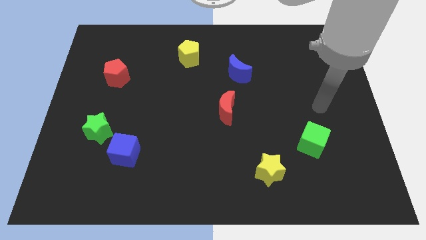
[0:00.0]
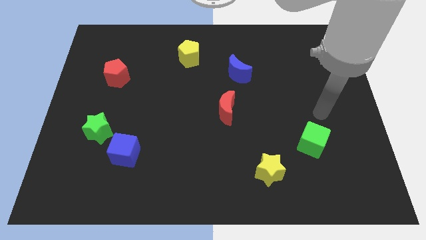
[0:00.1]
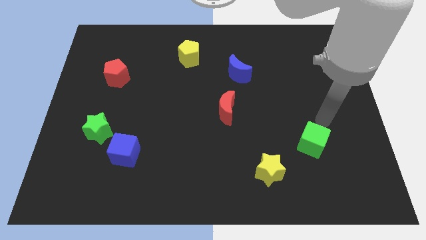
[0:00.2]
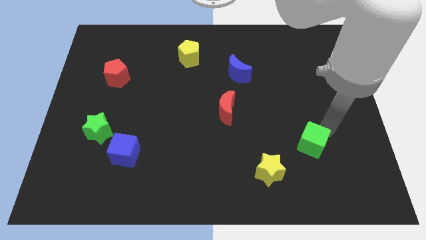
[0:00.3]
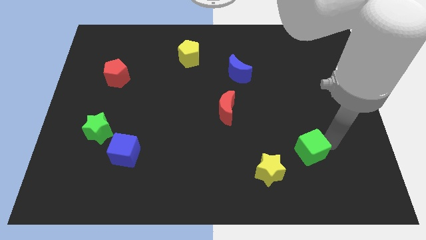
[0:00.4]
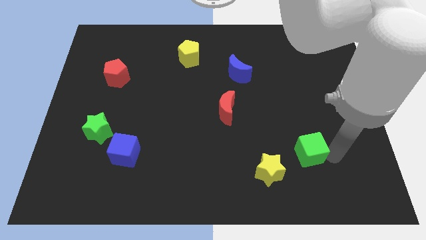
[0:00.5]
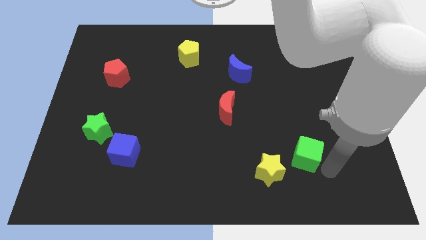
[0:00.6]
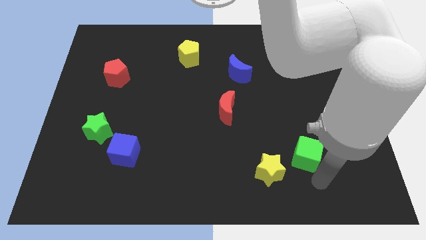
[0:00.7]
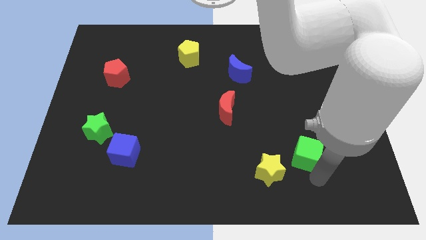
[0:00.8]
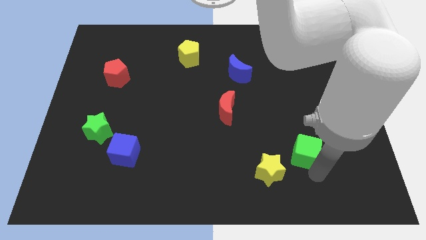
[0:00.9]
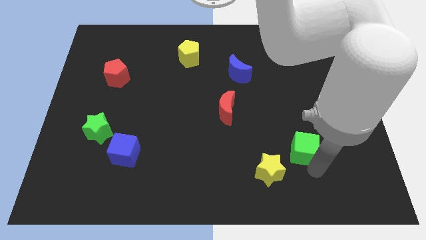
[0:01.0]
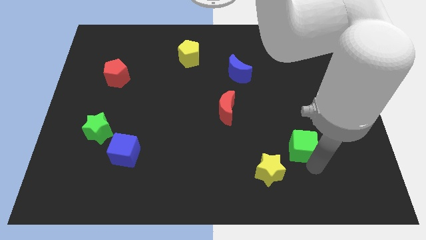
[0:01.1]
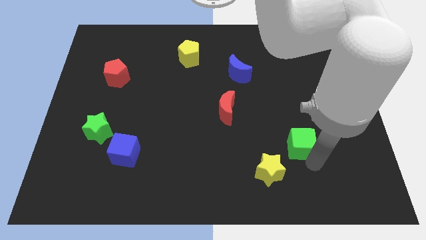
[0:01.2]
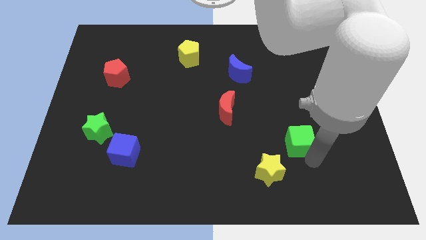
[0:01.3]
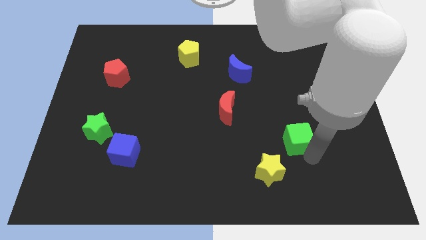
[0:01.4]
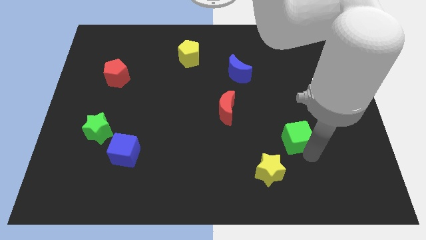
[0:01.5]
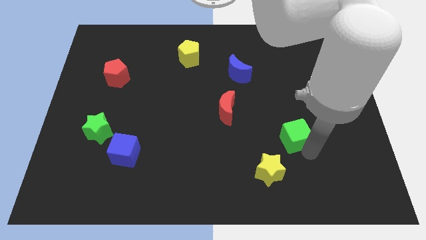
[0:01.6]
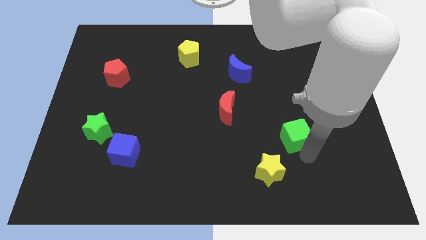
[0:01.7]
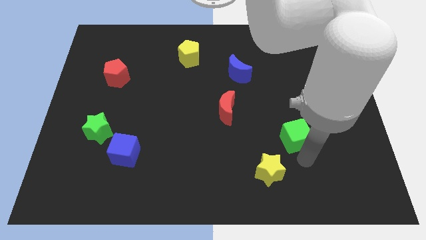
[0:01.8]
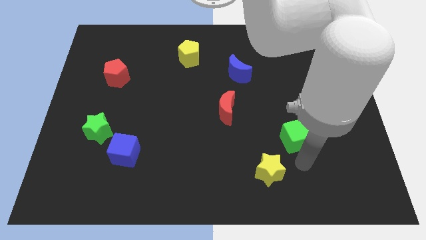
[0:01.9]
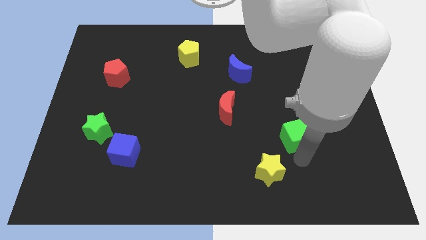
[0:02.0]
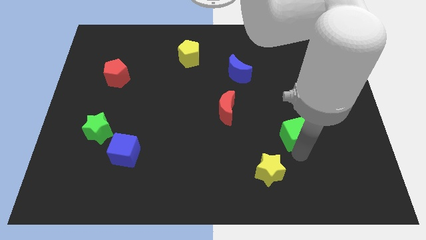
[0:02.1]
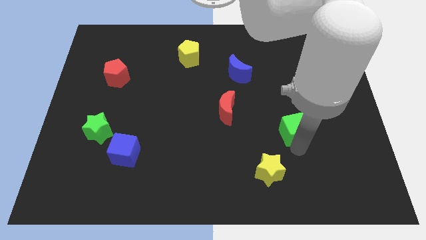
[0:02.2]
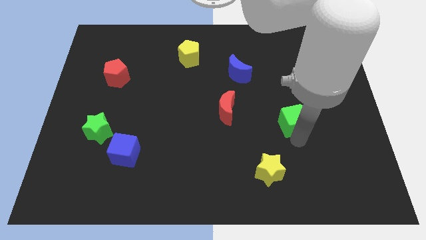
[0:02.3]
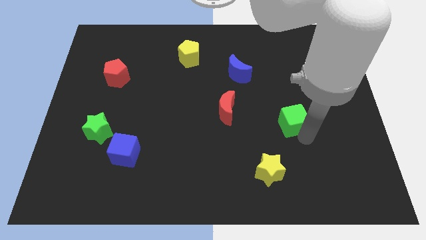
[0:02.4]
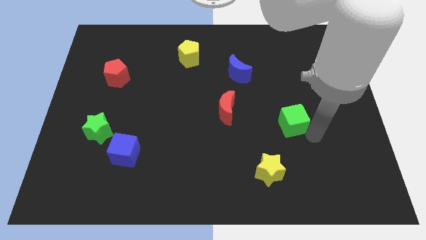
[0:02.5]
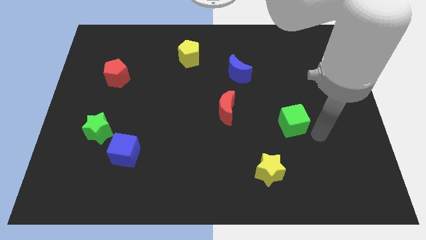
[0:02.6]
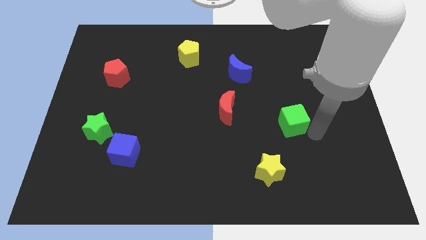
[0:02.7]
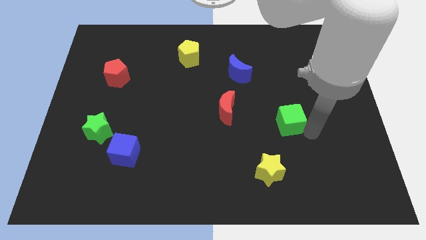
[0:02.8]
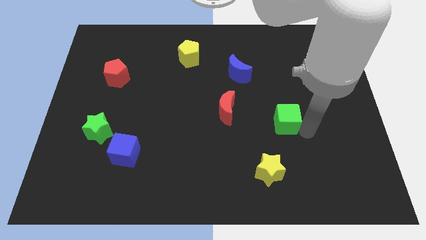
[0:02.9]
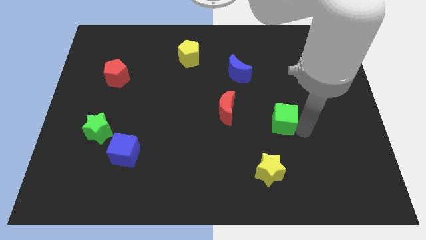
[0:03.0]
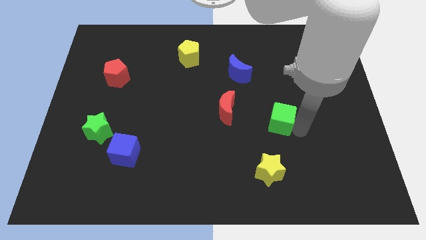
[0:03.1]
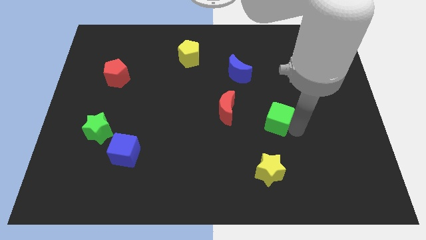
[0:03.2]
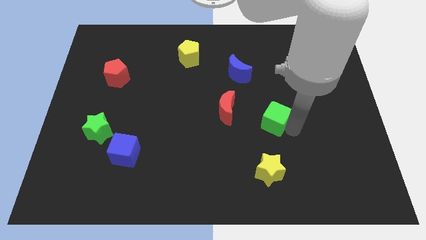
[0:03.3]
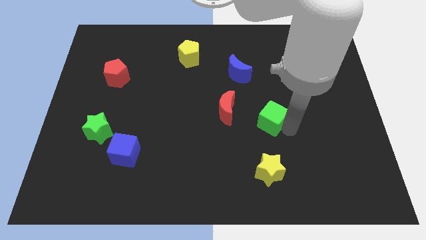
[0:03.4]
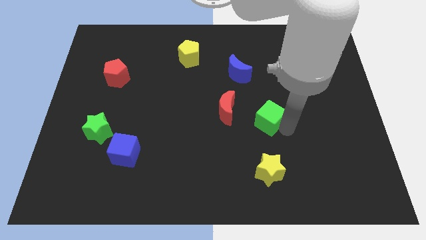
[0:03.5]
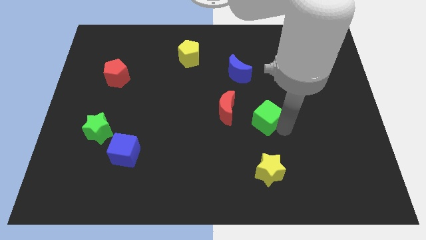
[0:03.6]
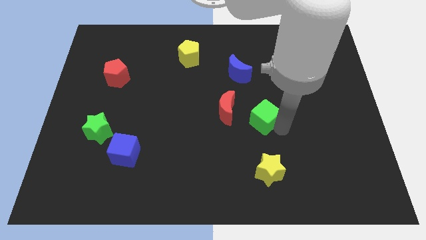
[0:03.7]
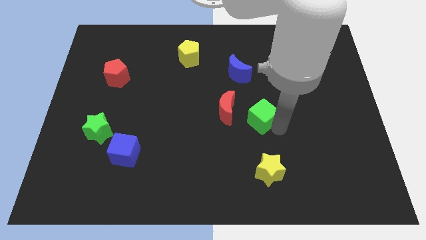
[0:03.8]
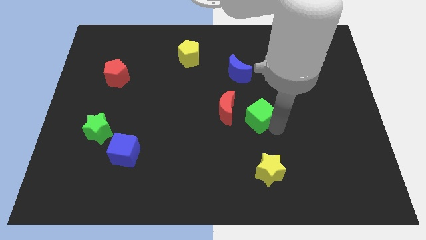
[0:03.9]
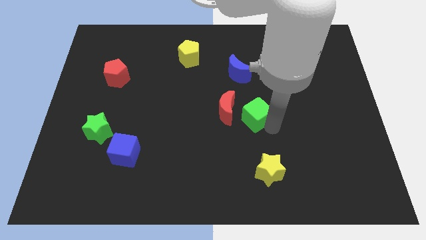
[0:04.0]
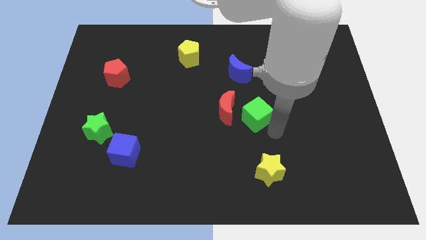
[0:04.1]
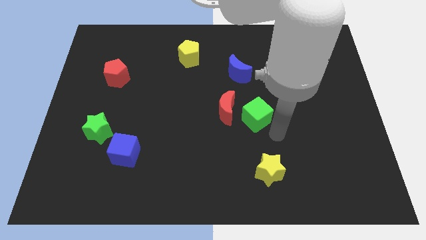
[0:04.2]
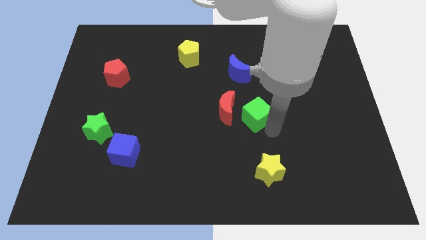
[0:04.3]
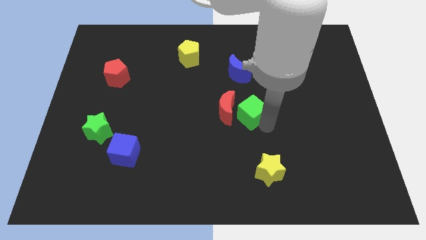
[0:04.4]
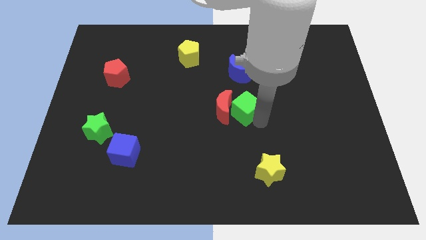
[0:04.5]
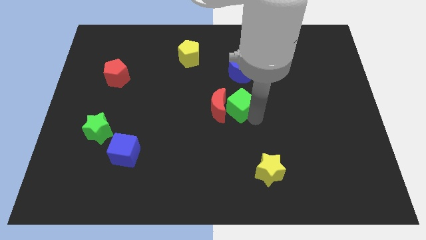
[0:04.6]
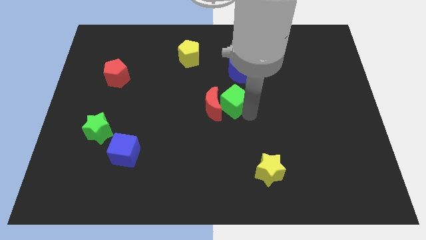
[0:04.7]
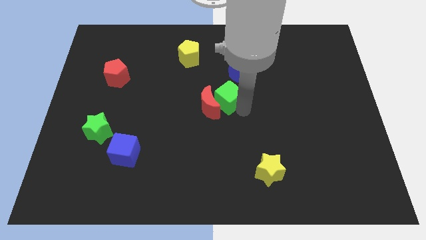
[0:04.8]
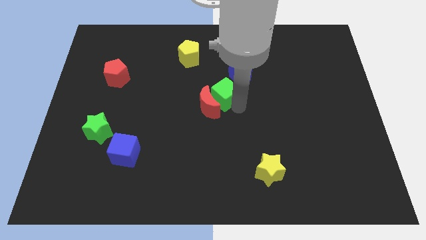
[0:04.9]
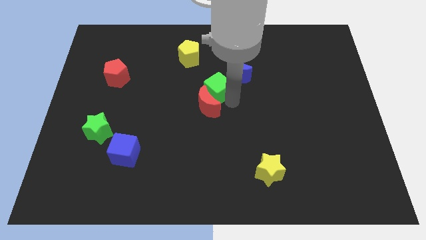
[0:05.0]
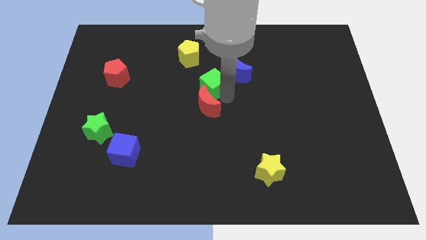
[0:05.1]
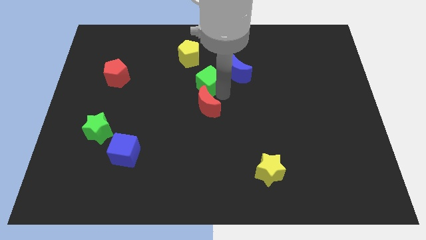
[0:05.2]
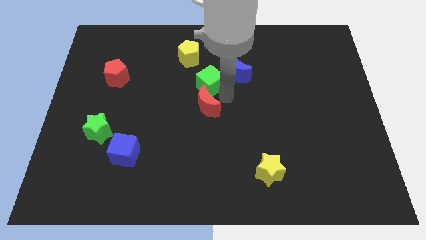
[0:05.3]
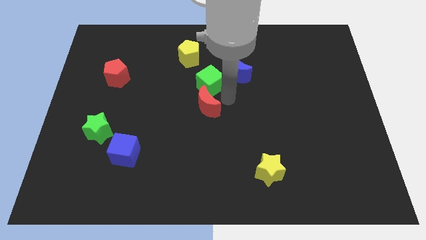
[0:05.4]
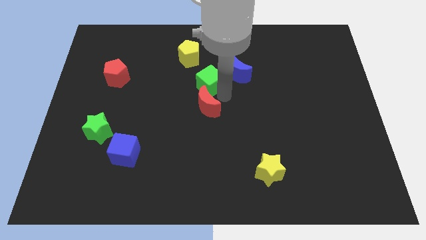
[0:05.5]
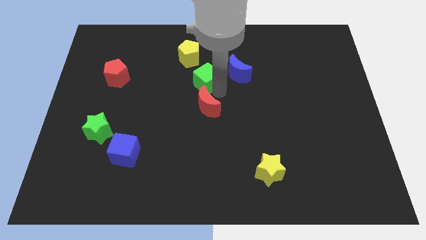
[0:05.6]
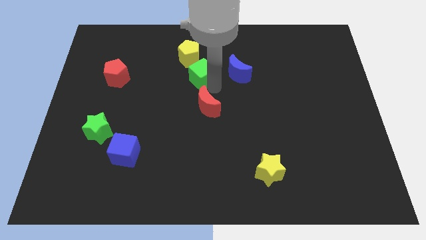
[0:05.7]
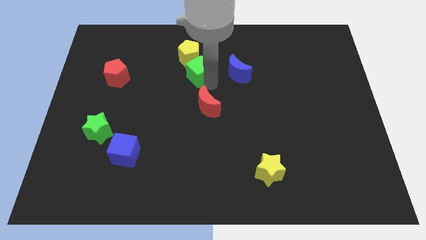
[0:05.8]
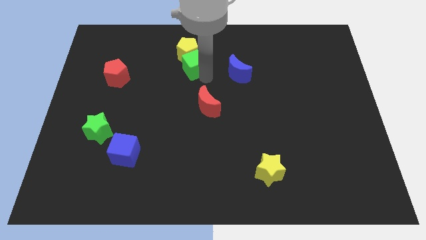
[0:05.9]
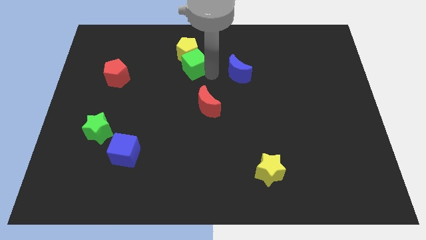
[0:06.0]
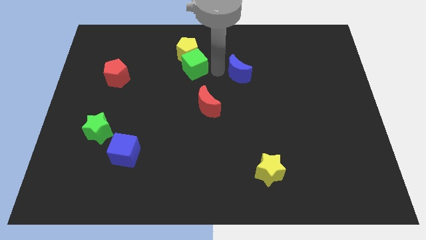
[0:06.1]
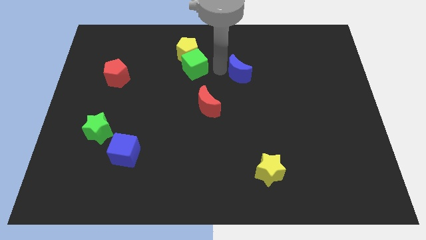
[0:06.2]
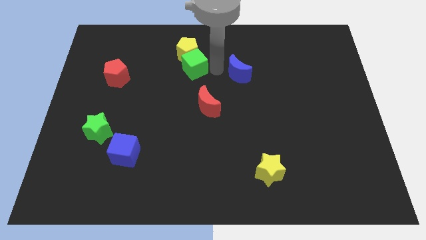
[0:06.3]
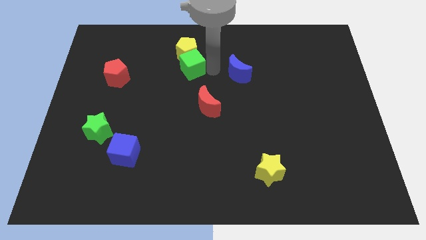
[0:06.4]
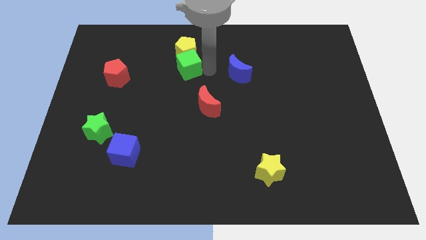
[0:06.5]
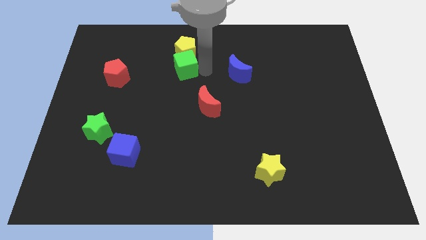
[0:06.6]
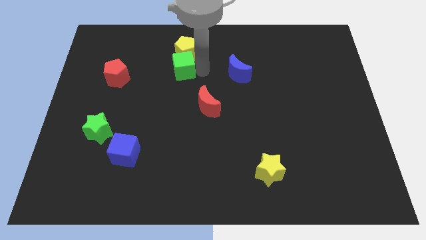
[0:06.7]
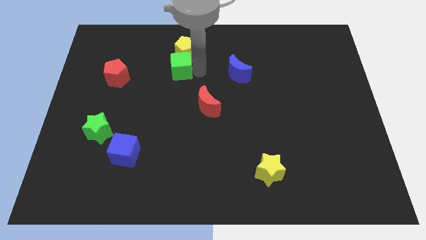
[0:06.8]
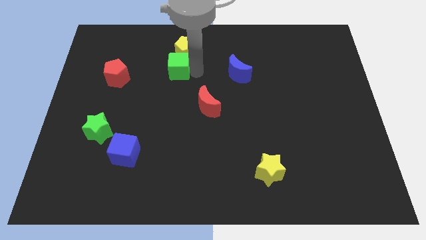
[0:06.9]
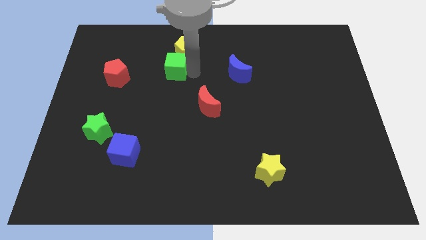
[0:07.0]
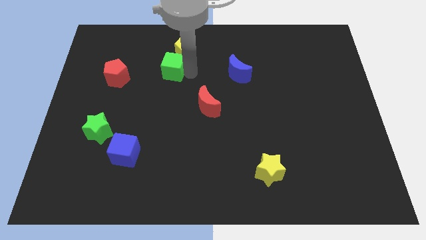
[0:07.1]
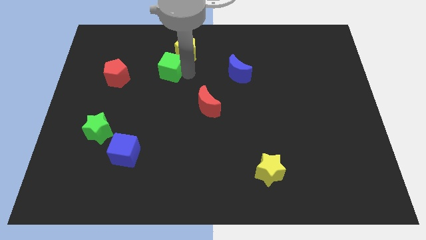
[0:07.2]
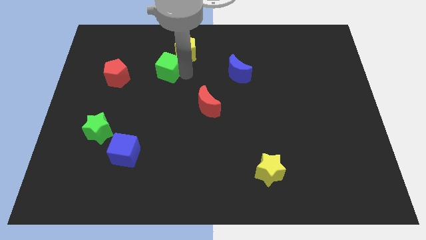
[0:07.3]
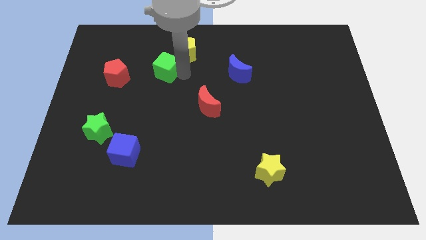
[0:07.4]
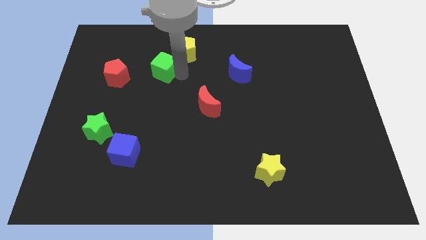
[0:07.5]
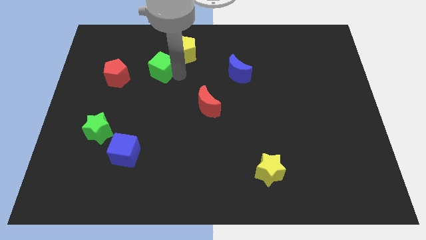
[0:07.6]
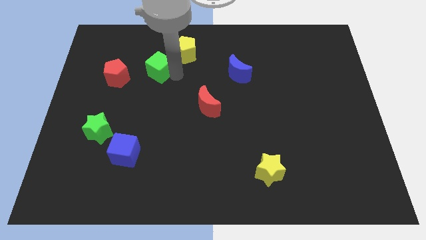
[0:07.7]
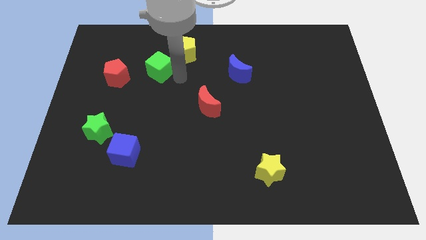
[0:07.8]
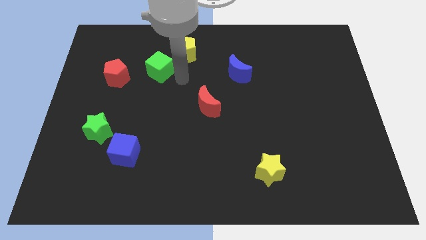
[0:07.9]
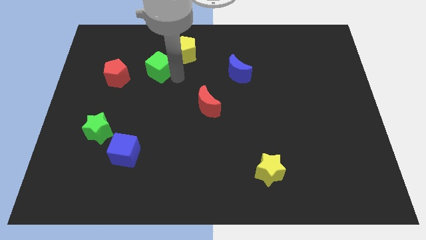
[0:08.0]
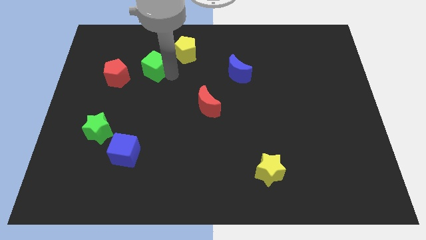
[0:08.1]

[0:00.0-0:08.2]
move the green cube to the top right side of the red pentagon
